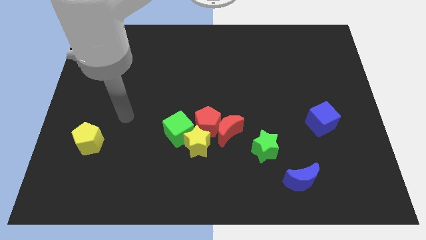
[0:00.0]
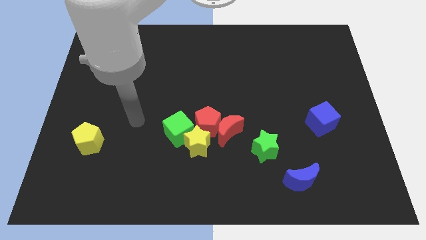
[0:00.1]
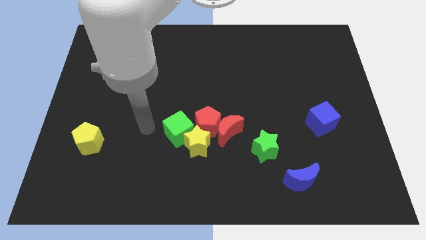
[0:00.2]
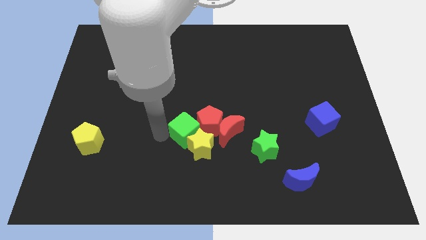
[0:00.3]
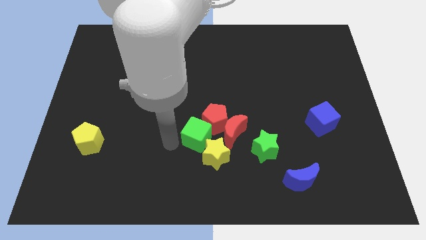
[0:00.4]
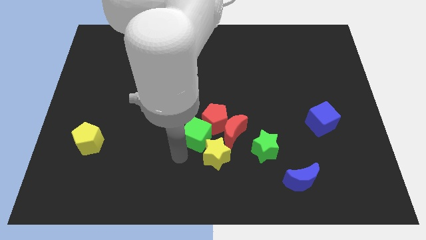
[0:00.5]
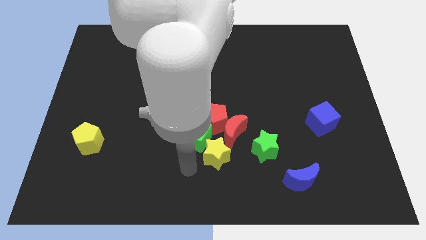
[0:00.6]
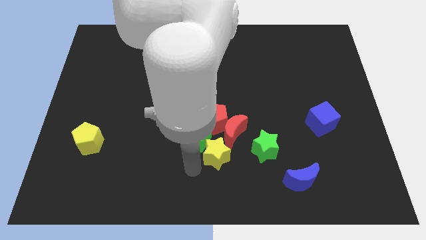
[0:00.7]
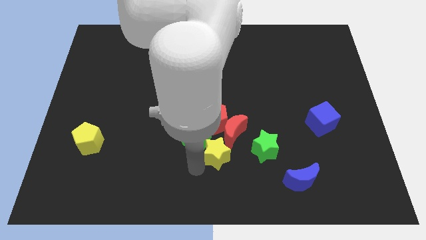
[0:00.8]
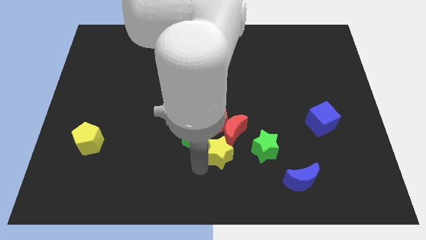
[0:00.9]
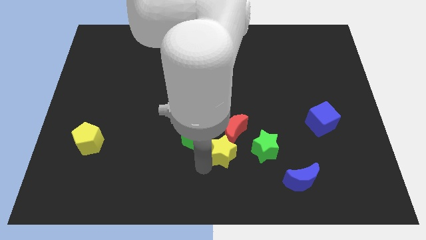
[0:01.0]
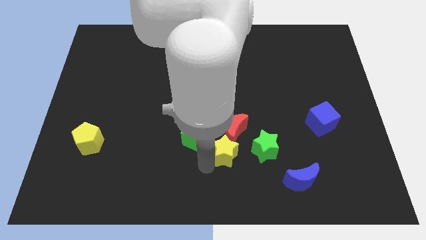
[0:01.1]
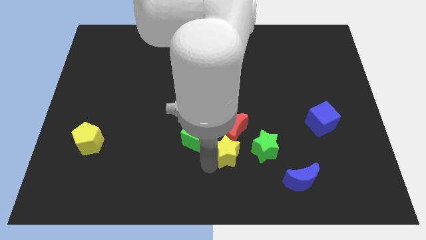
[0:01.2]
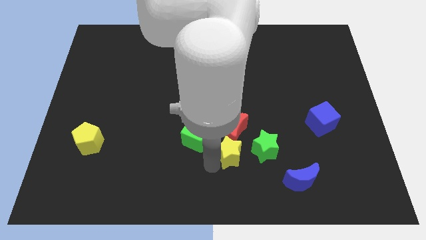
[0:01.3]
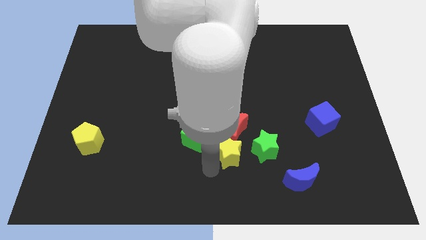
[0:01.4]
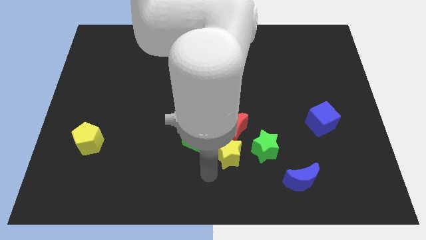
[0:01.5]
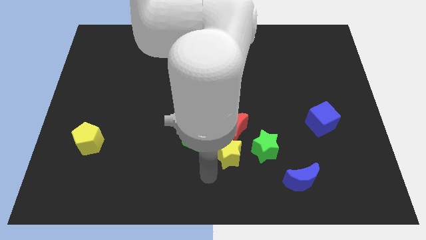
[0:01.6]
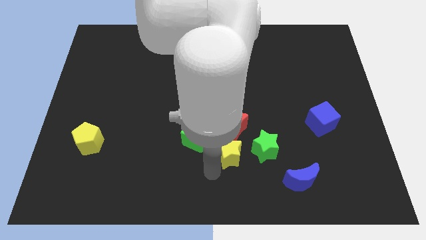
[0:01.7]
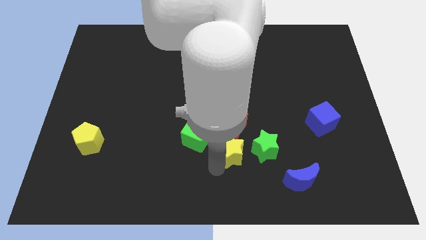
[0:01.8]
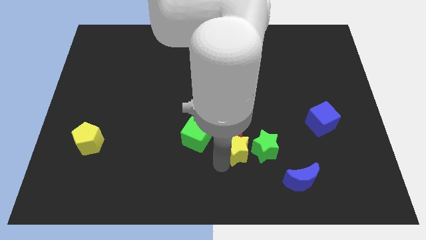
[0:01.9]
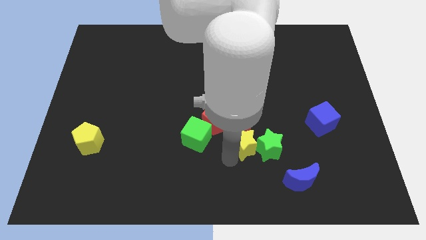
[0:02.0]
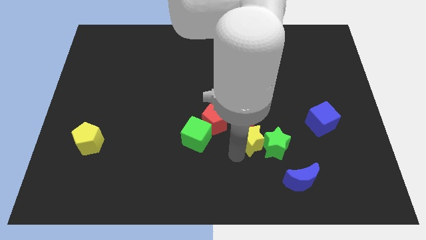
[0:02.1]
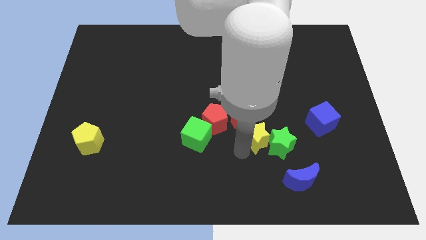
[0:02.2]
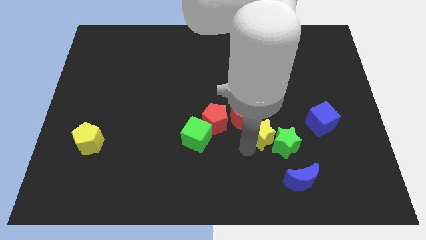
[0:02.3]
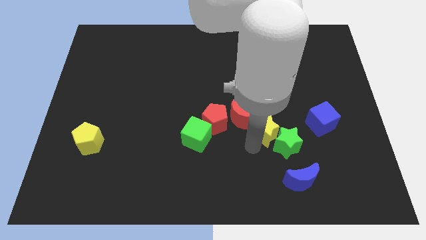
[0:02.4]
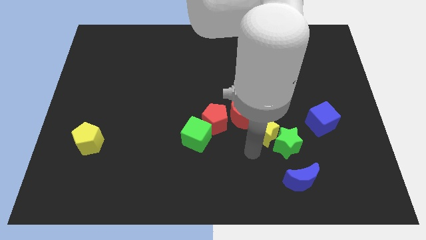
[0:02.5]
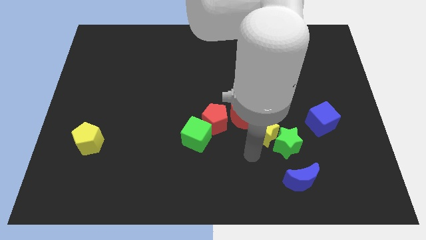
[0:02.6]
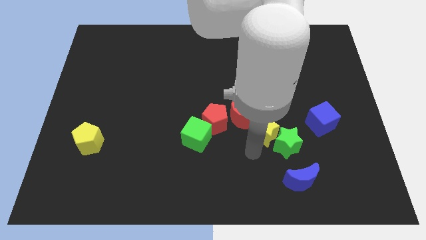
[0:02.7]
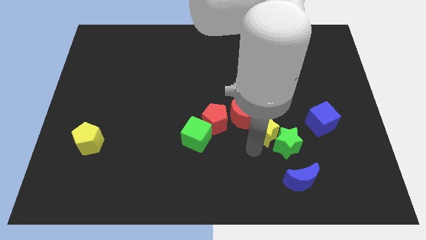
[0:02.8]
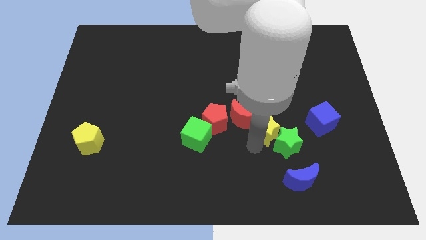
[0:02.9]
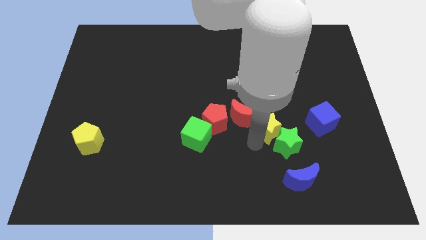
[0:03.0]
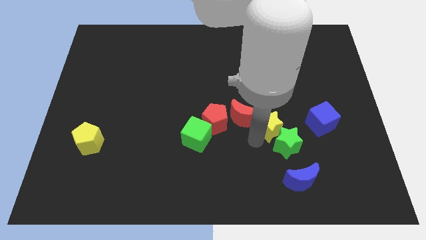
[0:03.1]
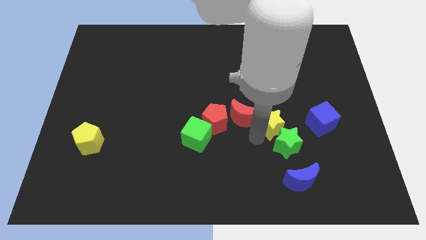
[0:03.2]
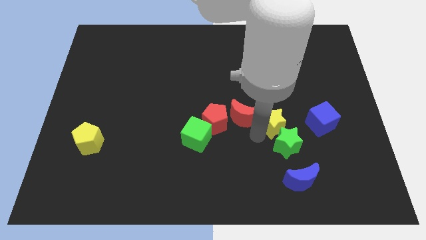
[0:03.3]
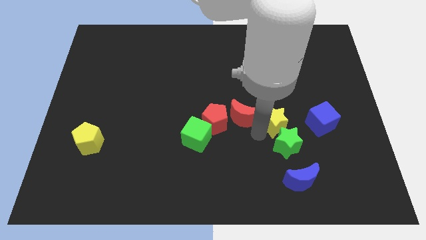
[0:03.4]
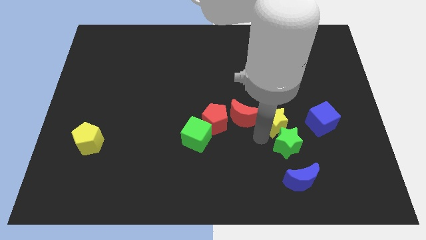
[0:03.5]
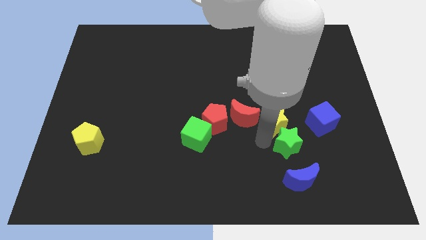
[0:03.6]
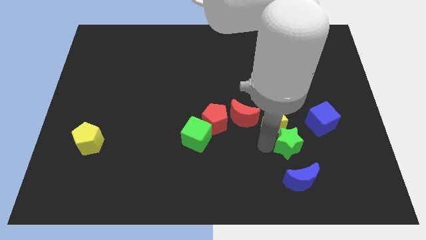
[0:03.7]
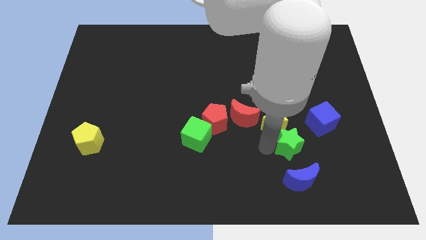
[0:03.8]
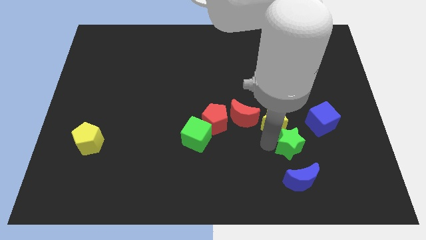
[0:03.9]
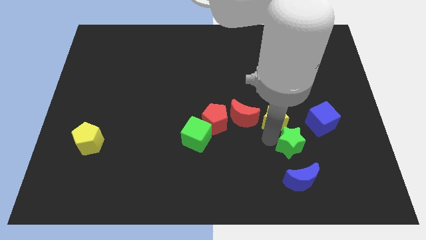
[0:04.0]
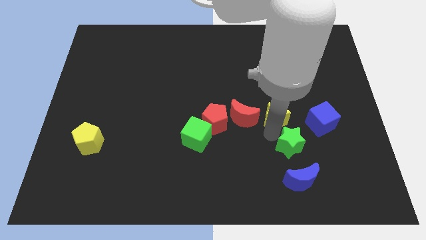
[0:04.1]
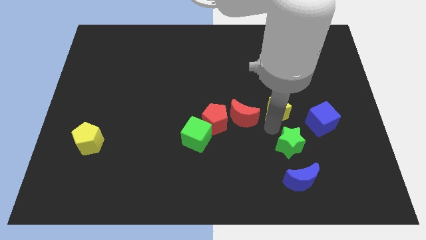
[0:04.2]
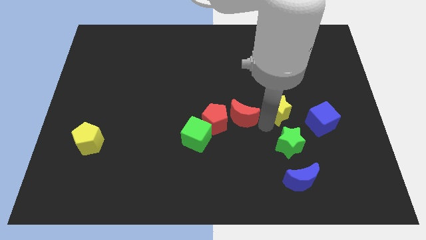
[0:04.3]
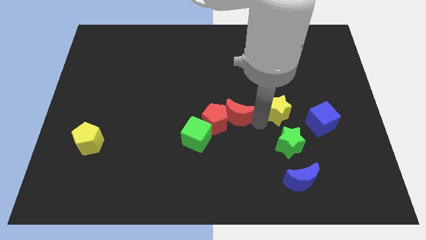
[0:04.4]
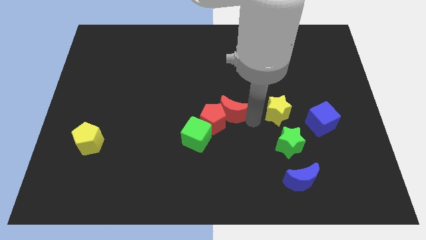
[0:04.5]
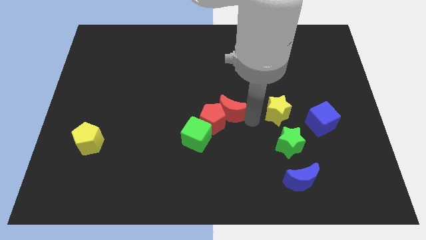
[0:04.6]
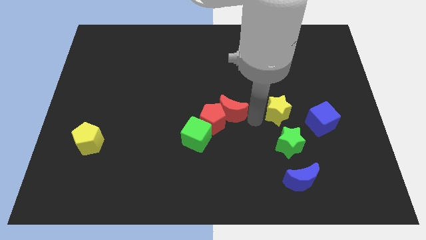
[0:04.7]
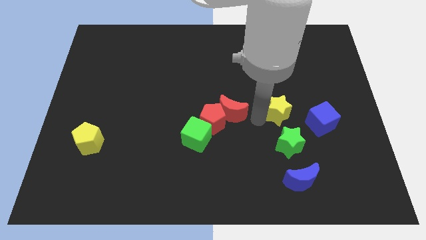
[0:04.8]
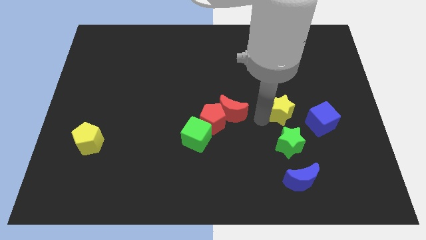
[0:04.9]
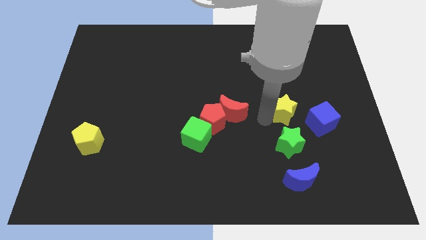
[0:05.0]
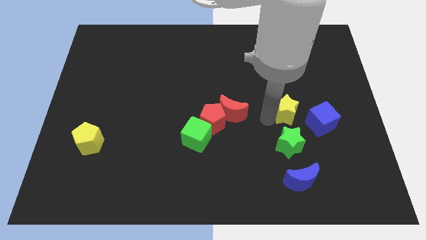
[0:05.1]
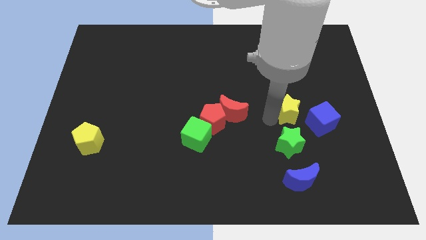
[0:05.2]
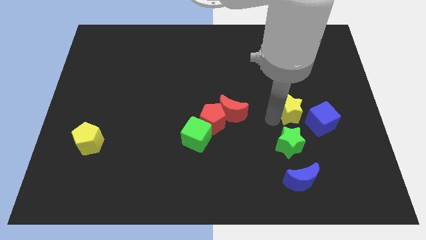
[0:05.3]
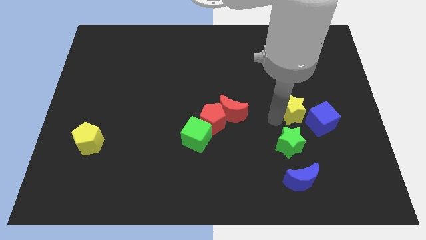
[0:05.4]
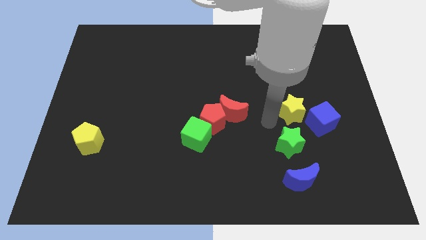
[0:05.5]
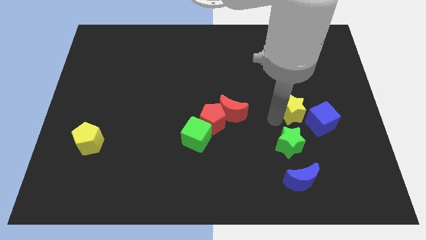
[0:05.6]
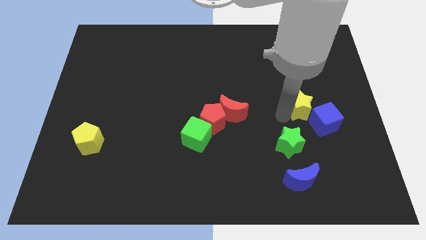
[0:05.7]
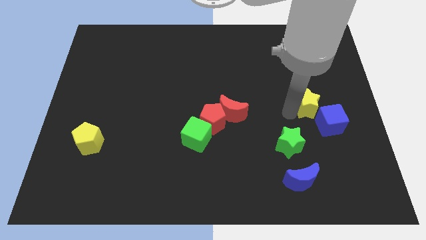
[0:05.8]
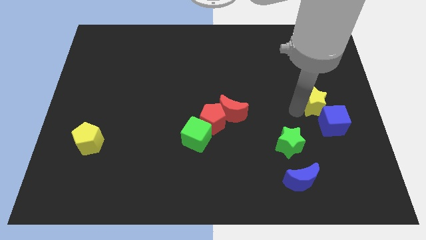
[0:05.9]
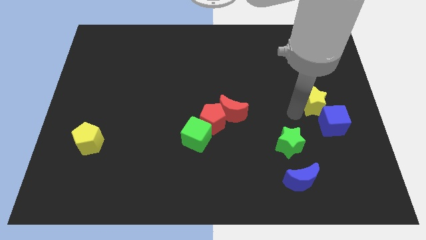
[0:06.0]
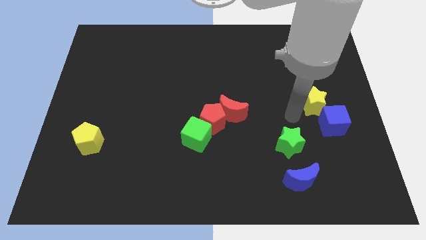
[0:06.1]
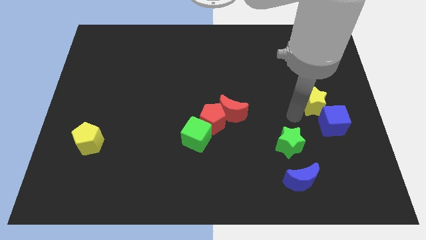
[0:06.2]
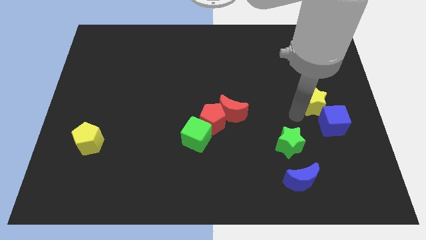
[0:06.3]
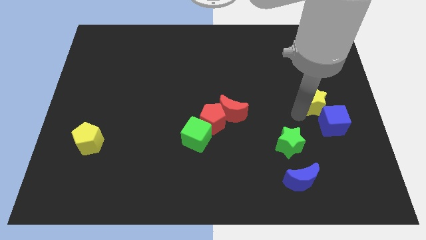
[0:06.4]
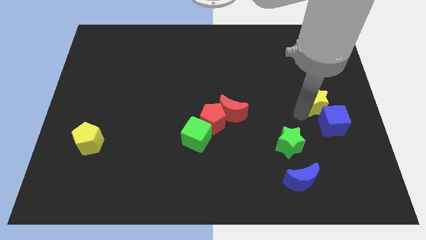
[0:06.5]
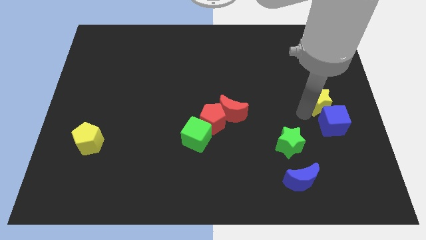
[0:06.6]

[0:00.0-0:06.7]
push the yellow star to the right side of the board
